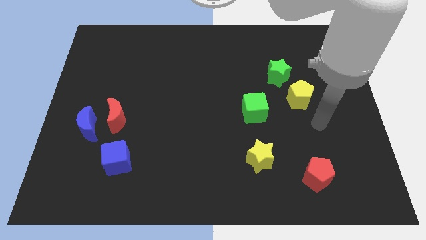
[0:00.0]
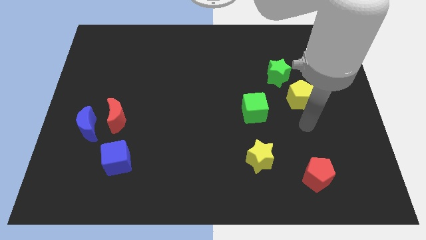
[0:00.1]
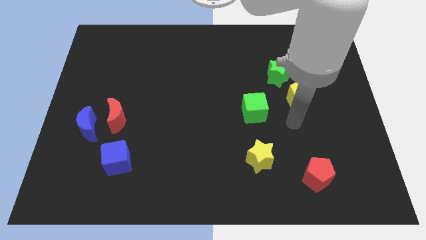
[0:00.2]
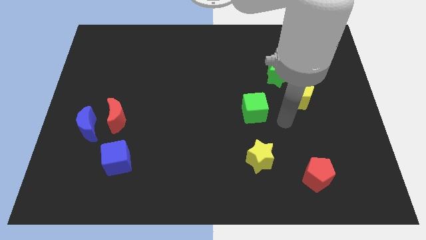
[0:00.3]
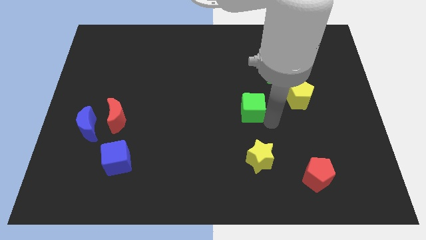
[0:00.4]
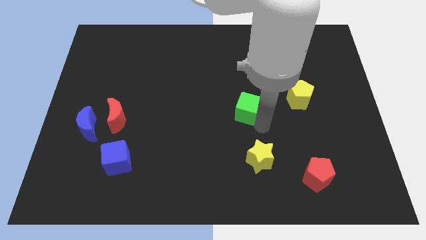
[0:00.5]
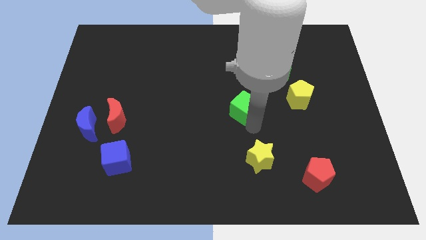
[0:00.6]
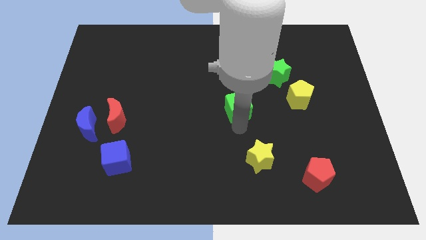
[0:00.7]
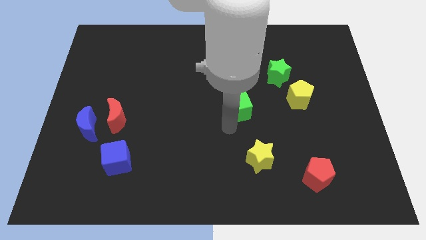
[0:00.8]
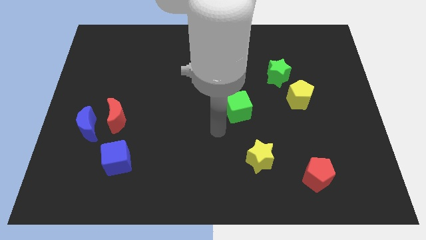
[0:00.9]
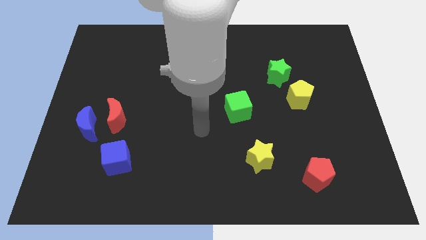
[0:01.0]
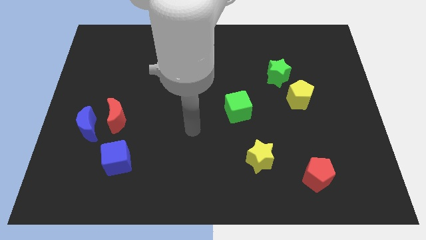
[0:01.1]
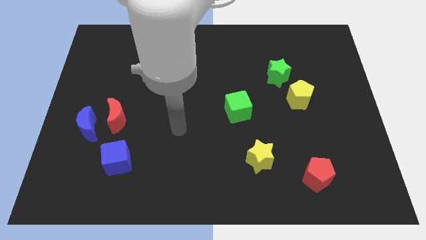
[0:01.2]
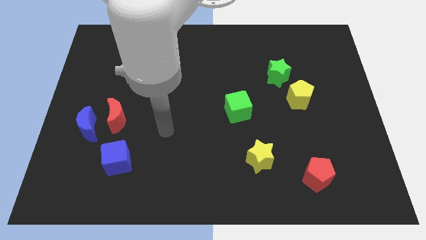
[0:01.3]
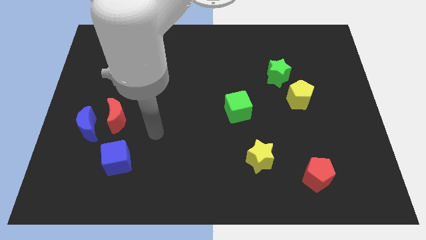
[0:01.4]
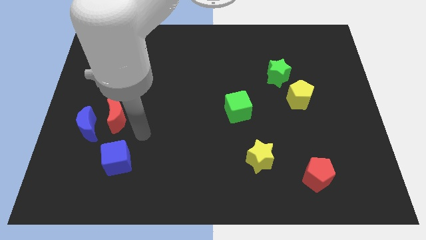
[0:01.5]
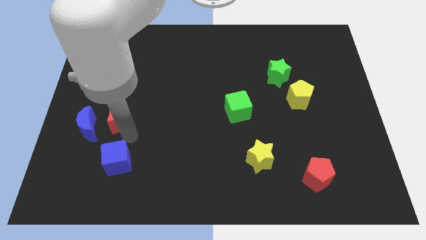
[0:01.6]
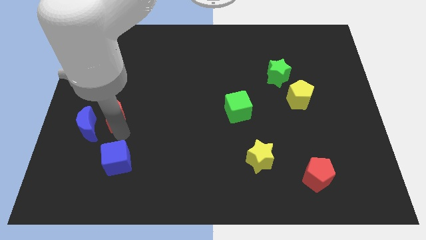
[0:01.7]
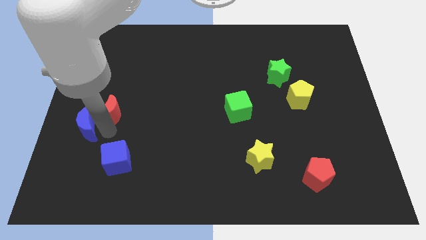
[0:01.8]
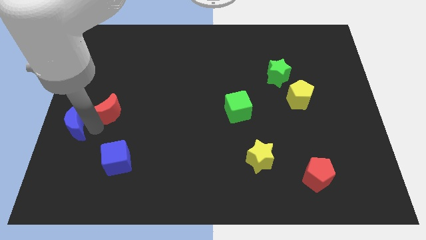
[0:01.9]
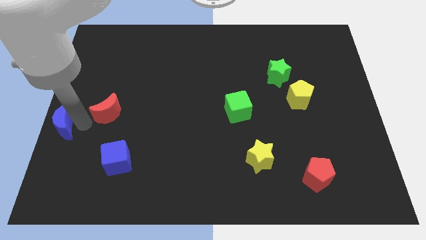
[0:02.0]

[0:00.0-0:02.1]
separate the red moon from the blue moon

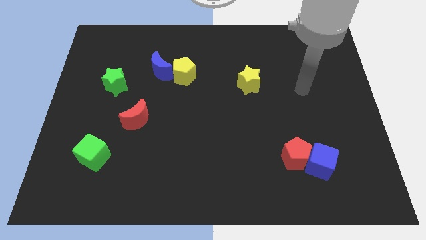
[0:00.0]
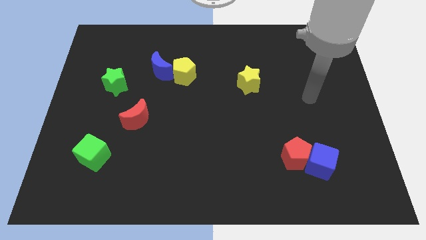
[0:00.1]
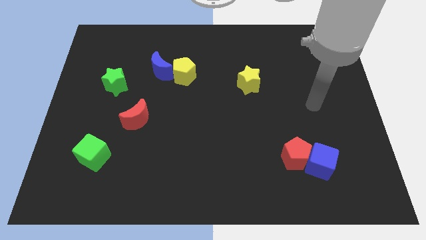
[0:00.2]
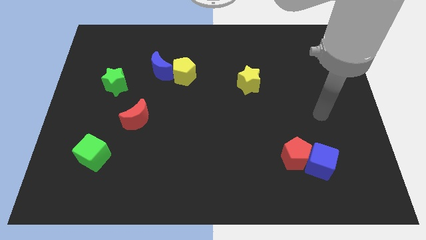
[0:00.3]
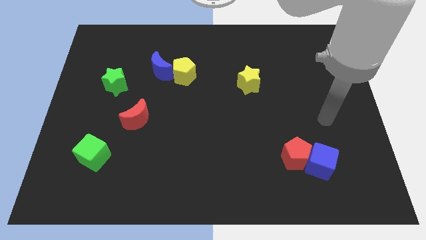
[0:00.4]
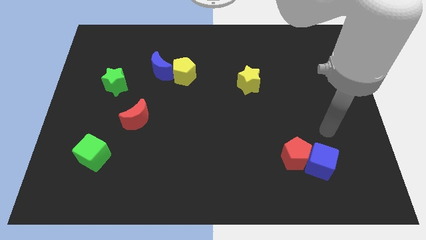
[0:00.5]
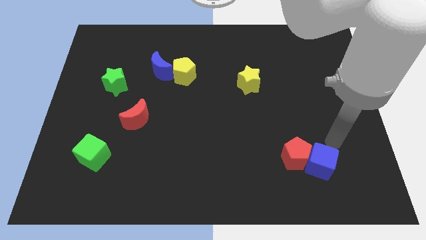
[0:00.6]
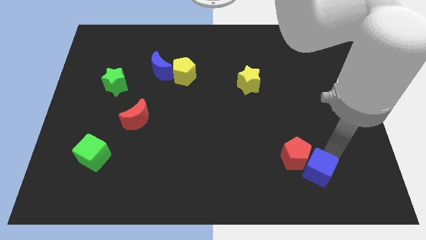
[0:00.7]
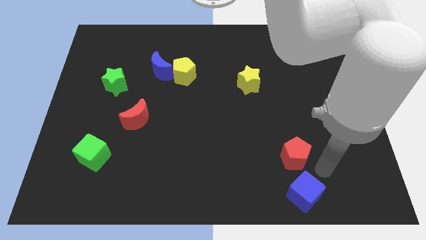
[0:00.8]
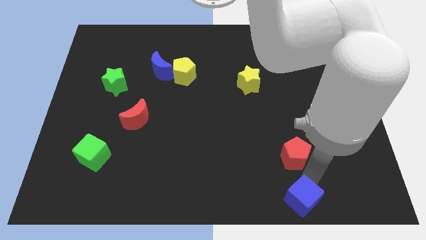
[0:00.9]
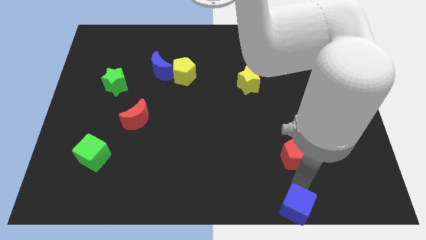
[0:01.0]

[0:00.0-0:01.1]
pull the red pentagon apart from the blue cube

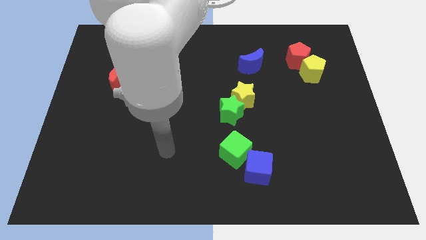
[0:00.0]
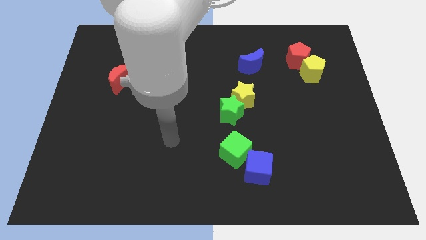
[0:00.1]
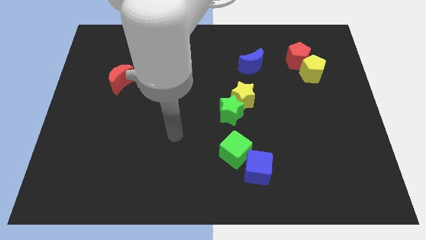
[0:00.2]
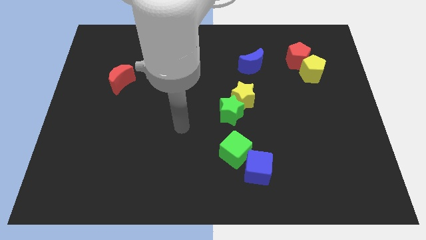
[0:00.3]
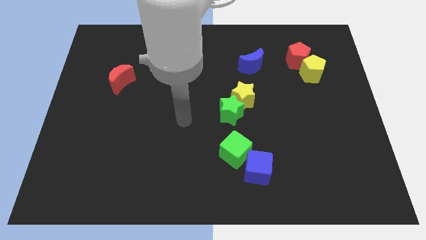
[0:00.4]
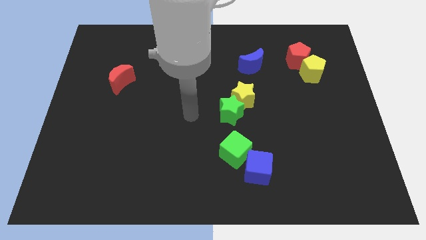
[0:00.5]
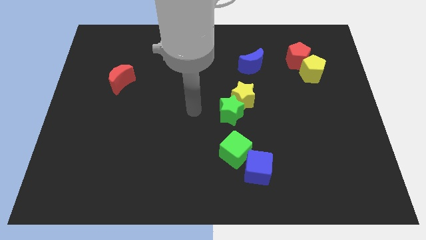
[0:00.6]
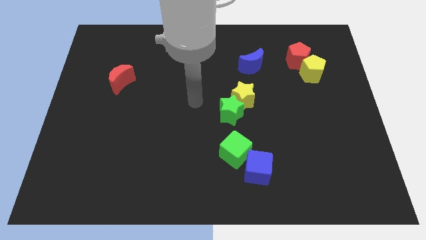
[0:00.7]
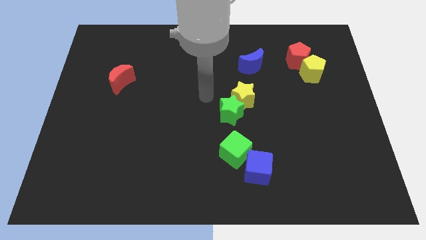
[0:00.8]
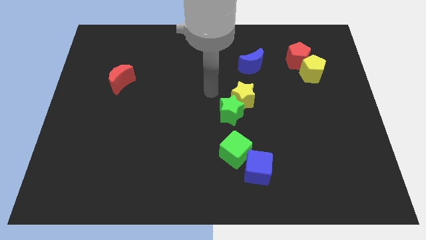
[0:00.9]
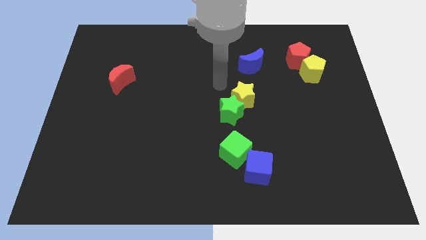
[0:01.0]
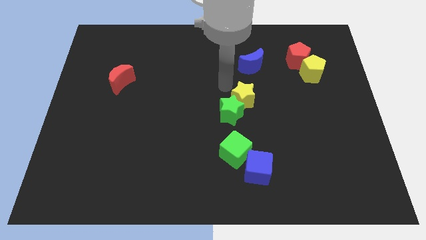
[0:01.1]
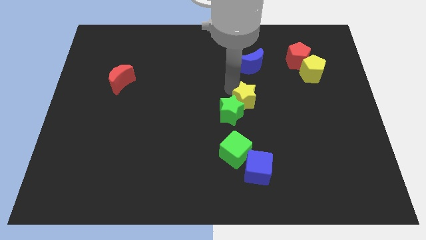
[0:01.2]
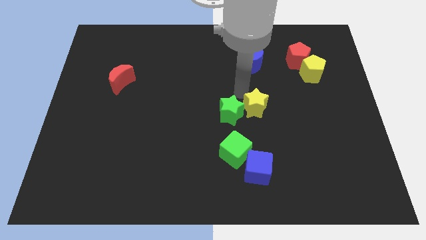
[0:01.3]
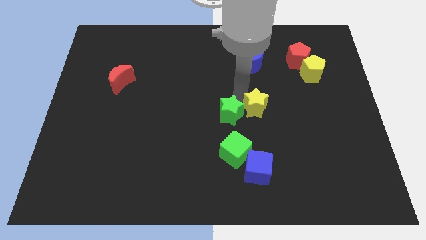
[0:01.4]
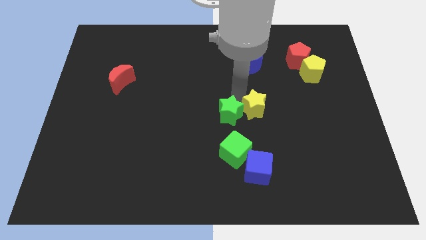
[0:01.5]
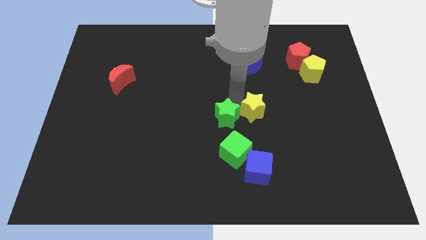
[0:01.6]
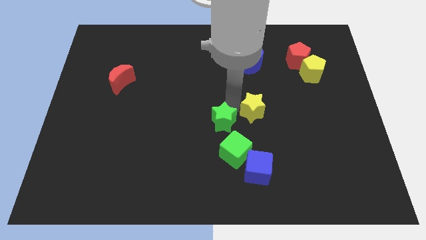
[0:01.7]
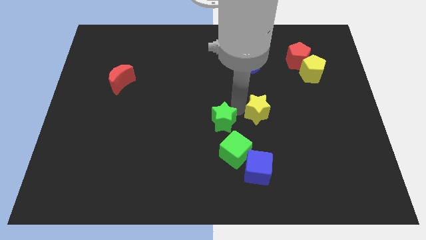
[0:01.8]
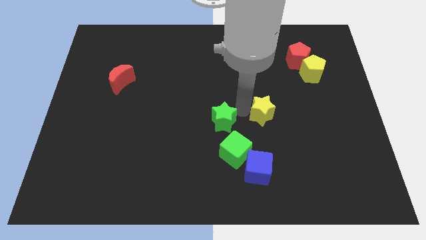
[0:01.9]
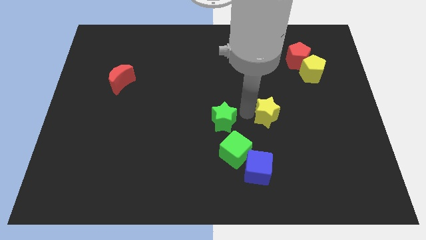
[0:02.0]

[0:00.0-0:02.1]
separate the green star from the yellow star

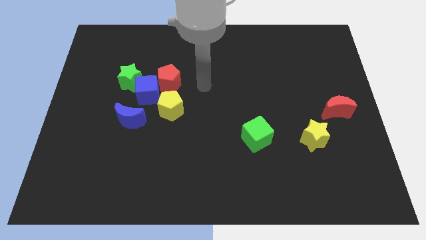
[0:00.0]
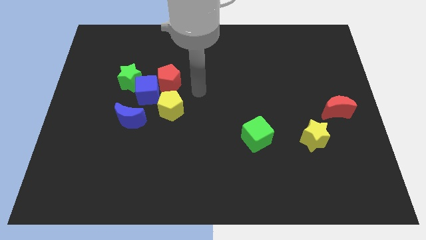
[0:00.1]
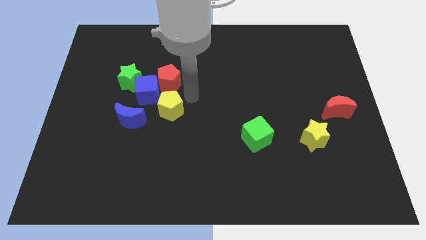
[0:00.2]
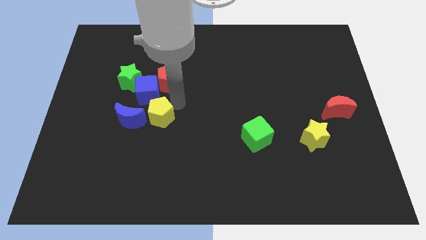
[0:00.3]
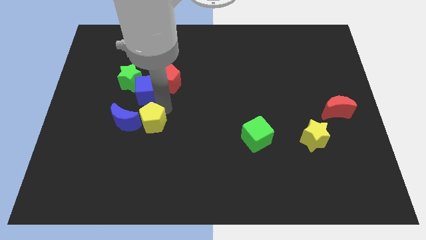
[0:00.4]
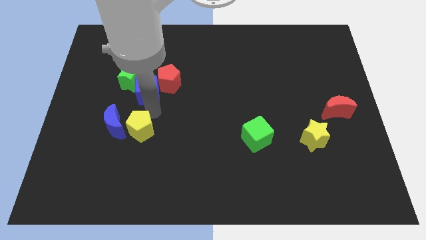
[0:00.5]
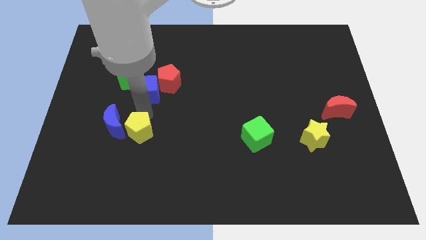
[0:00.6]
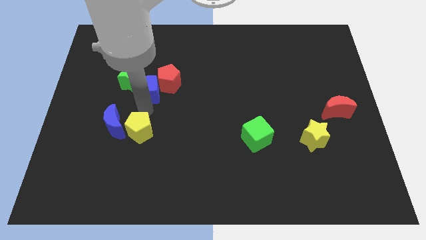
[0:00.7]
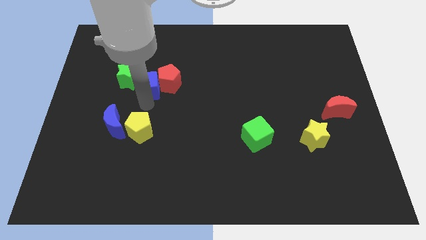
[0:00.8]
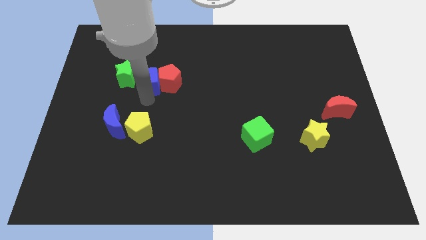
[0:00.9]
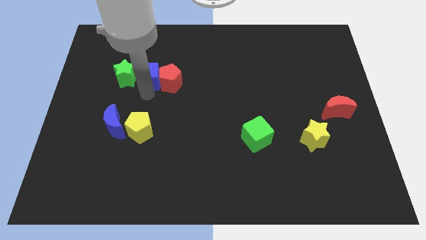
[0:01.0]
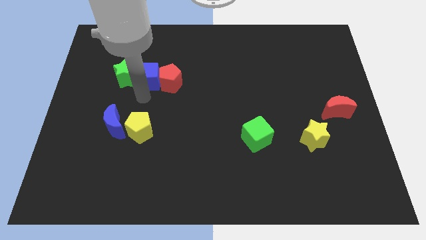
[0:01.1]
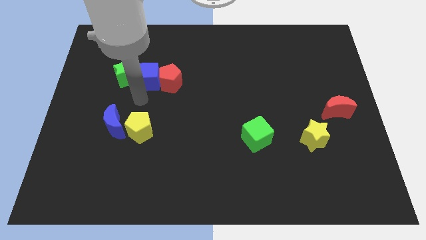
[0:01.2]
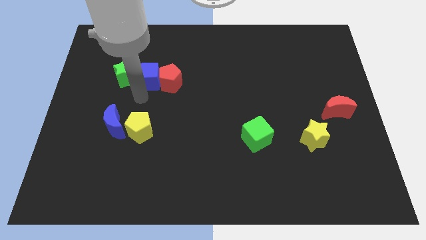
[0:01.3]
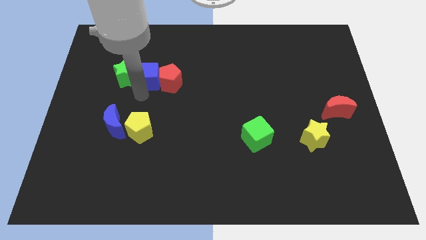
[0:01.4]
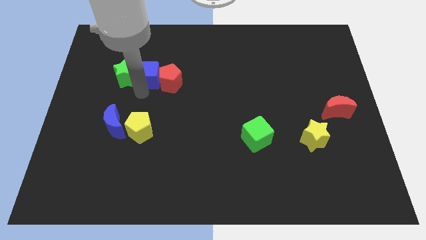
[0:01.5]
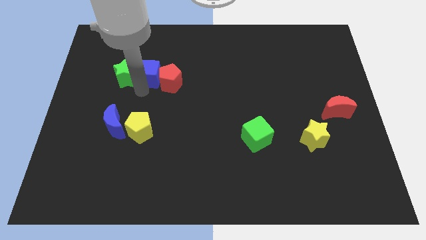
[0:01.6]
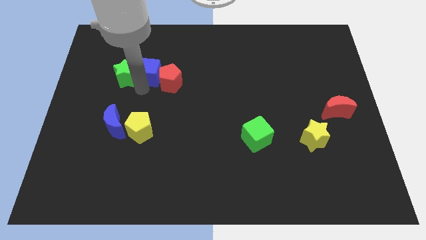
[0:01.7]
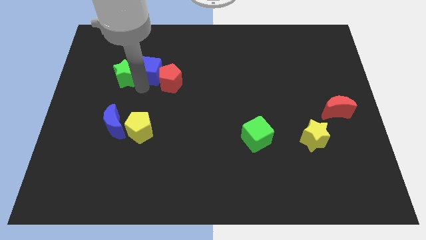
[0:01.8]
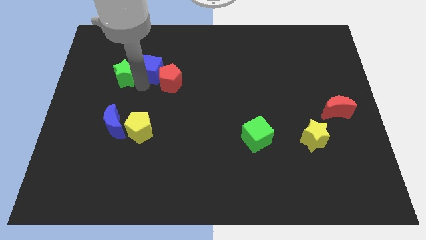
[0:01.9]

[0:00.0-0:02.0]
pull the blue cube apart from the group of blocks

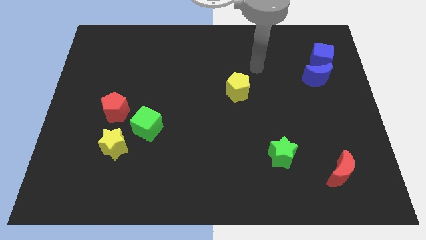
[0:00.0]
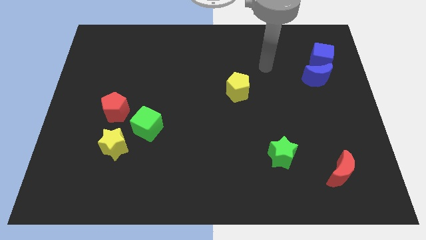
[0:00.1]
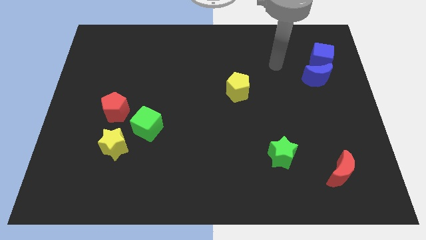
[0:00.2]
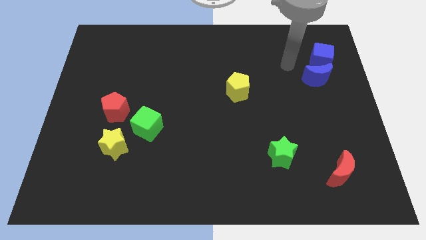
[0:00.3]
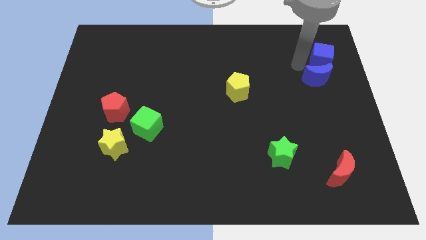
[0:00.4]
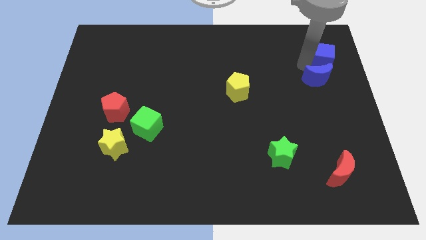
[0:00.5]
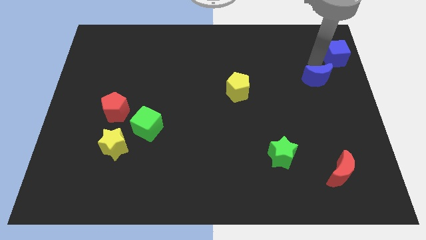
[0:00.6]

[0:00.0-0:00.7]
move the blue moon away from the blue cube

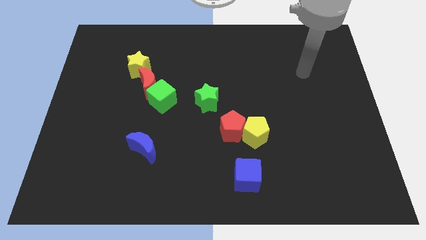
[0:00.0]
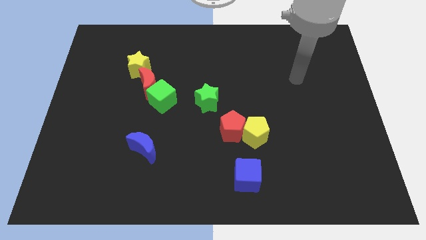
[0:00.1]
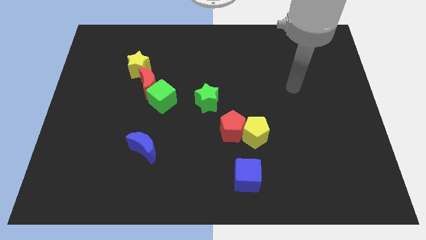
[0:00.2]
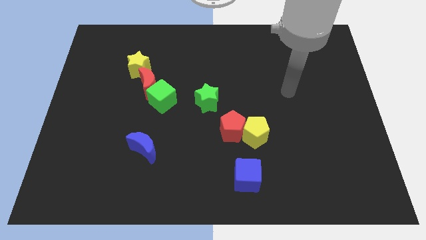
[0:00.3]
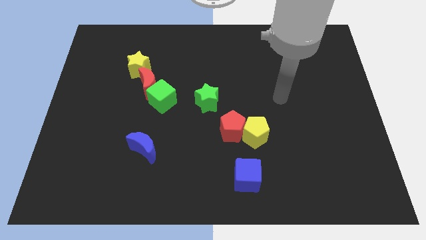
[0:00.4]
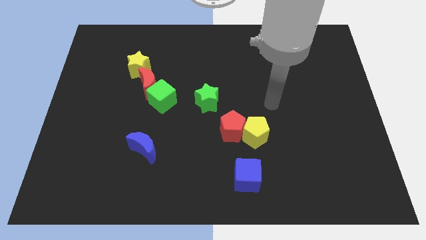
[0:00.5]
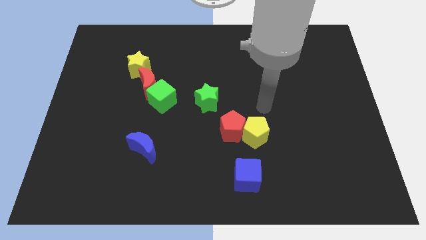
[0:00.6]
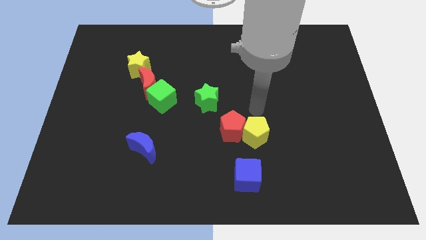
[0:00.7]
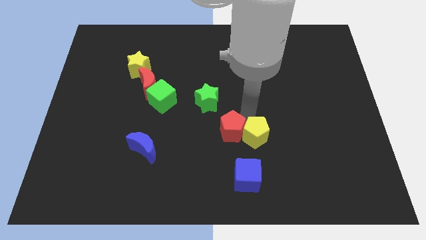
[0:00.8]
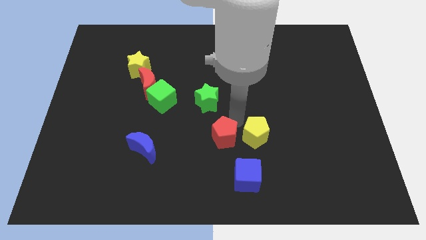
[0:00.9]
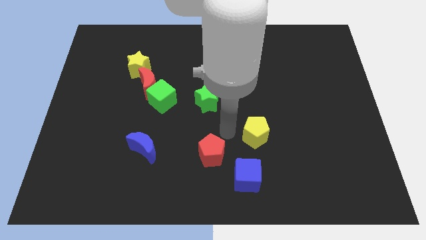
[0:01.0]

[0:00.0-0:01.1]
pull the yellow pentagon apart from the red pentagon

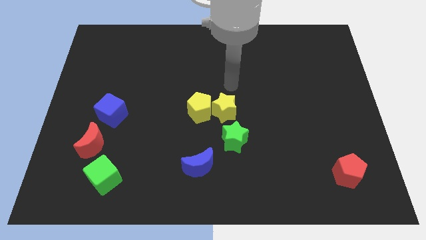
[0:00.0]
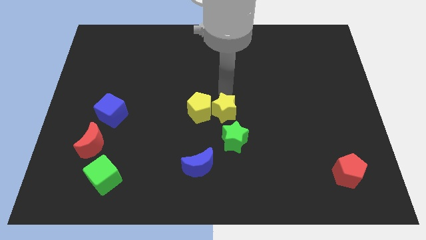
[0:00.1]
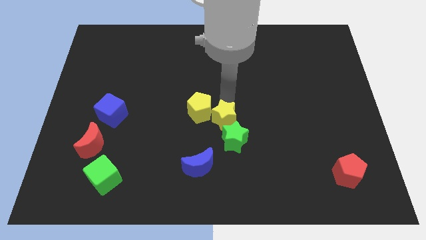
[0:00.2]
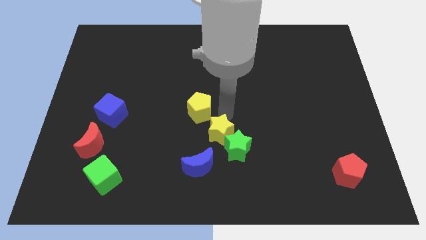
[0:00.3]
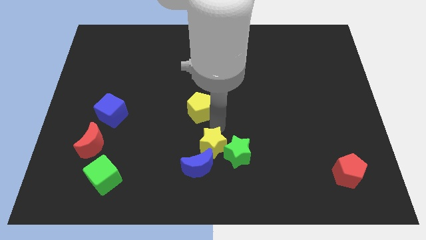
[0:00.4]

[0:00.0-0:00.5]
move the yellow pentagon away from the yellow star
